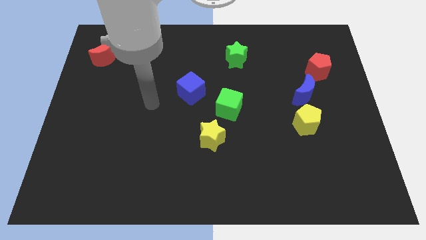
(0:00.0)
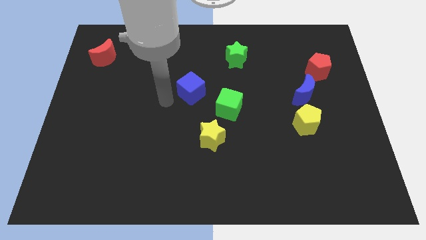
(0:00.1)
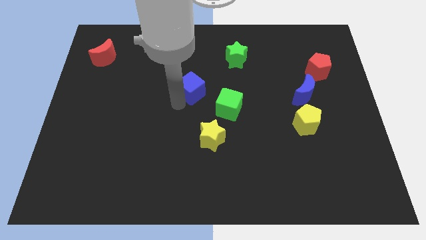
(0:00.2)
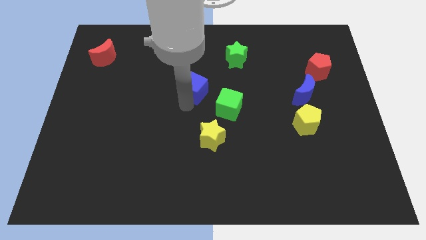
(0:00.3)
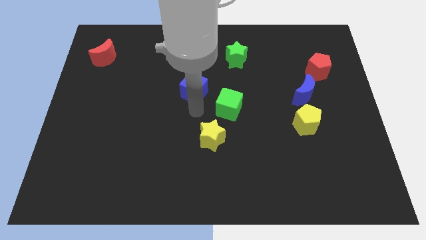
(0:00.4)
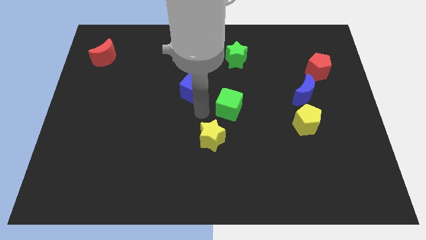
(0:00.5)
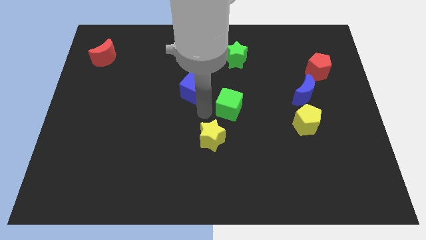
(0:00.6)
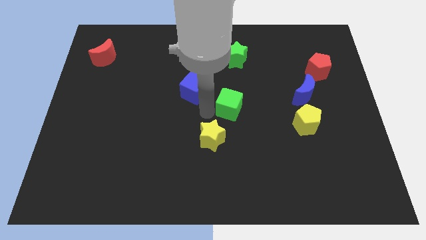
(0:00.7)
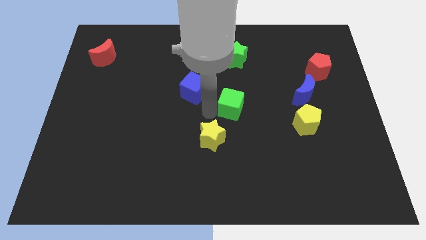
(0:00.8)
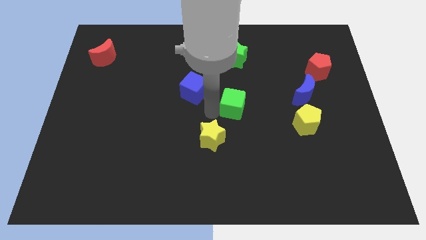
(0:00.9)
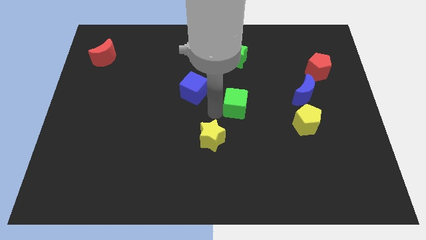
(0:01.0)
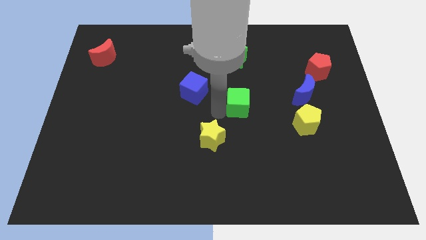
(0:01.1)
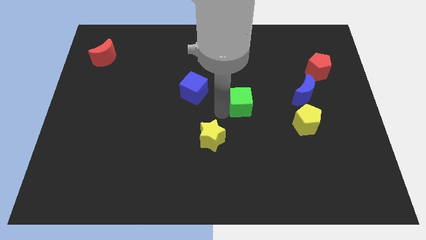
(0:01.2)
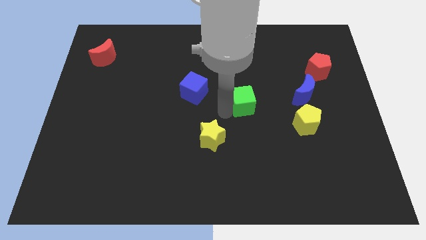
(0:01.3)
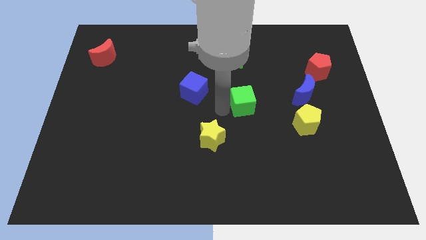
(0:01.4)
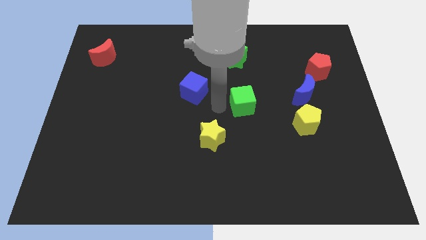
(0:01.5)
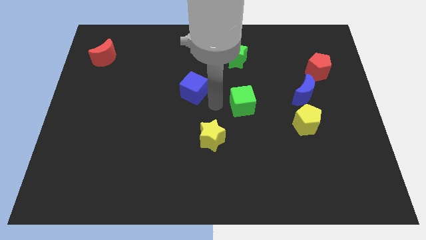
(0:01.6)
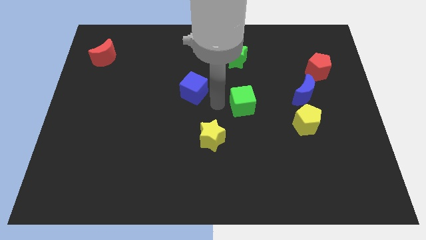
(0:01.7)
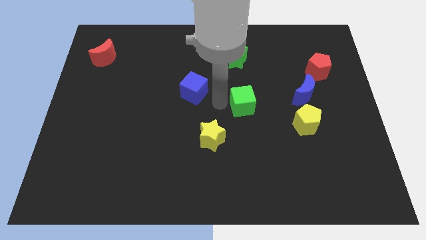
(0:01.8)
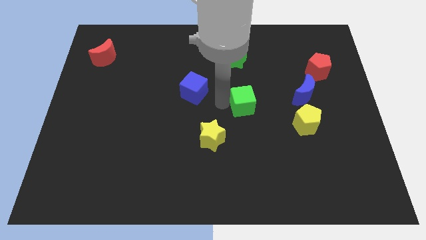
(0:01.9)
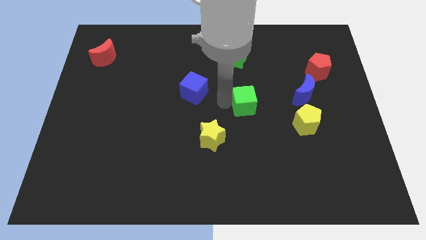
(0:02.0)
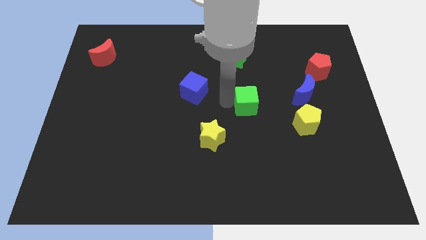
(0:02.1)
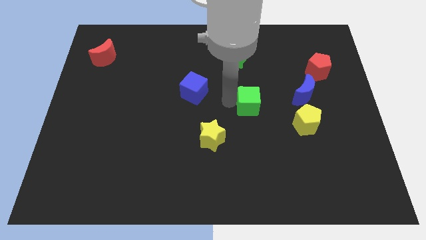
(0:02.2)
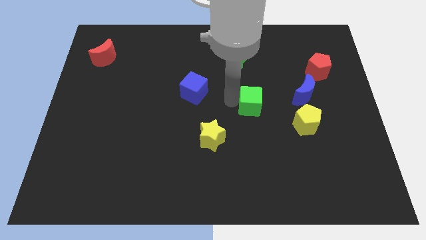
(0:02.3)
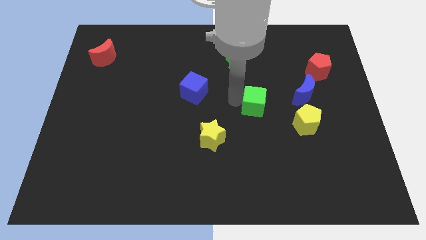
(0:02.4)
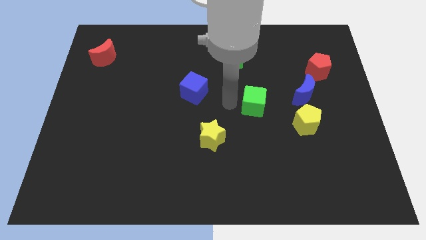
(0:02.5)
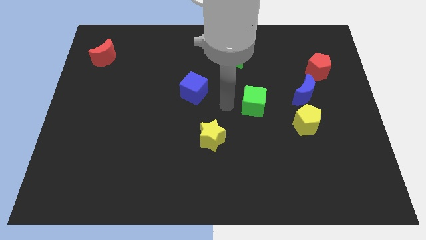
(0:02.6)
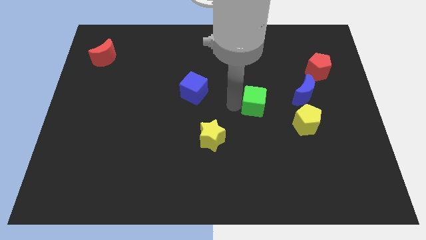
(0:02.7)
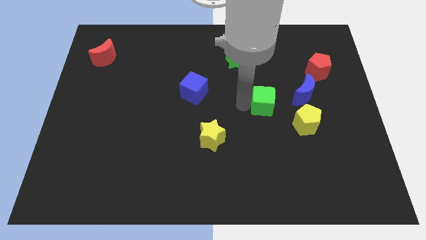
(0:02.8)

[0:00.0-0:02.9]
slide the green cube somewhat to the right

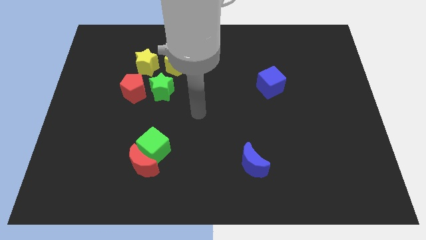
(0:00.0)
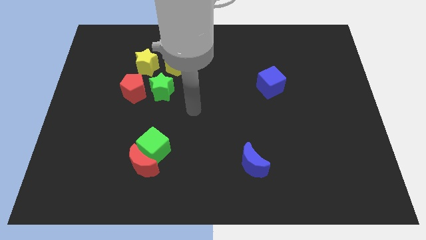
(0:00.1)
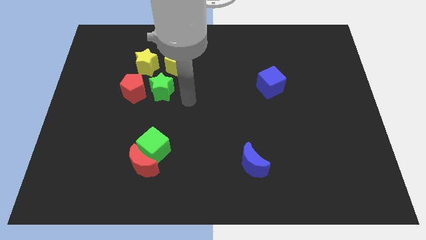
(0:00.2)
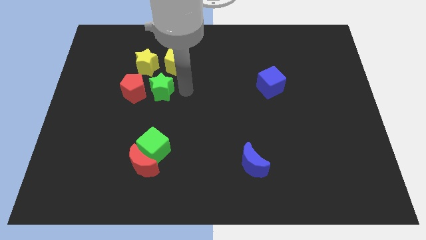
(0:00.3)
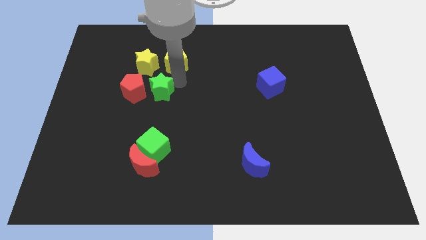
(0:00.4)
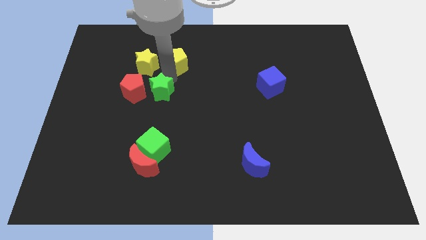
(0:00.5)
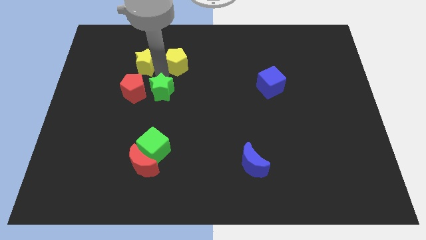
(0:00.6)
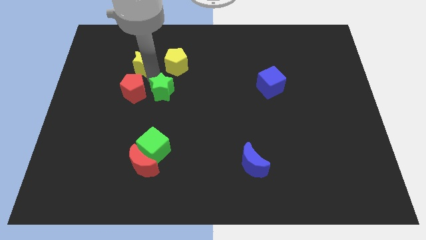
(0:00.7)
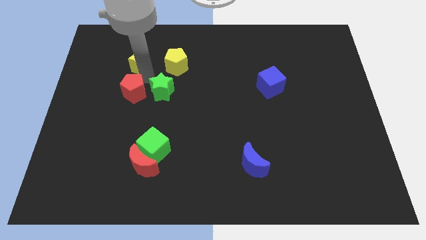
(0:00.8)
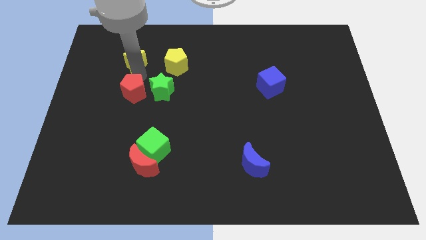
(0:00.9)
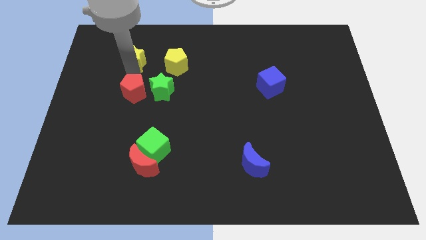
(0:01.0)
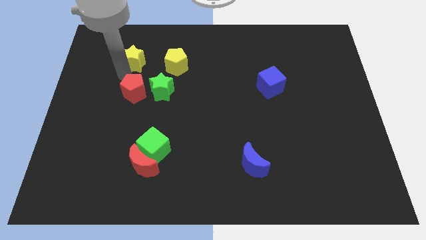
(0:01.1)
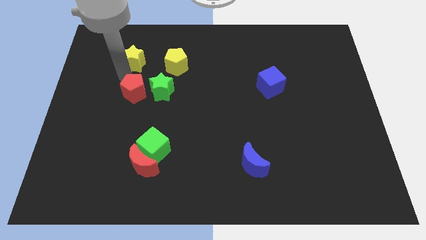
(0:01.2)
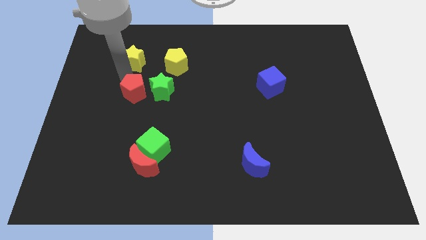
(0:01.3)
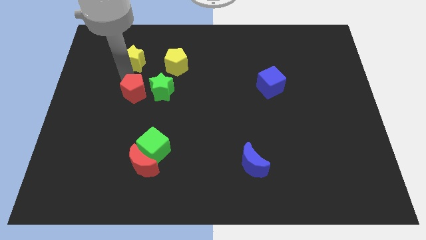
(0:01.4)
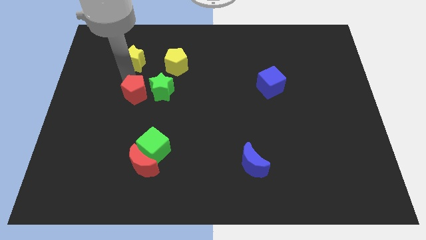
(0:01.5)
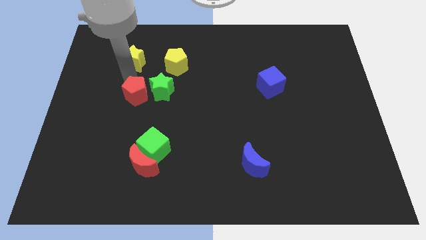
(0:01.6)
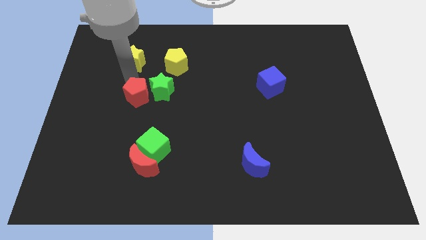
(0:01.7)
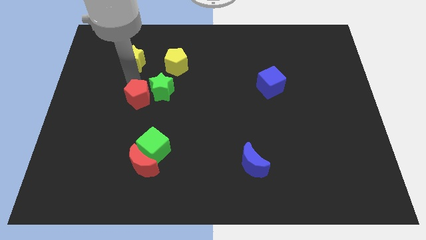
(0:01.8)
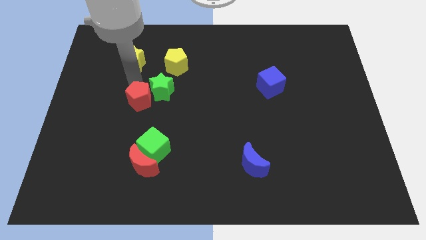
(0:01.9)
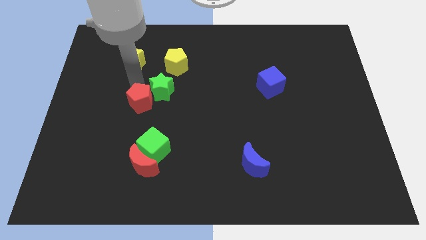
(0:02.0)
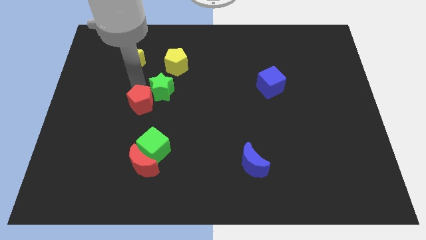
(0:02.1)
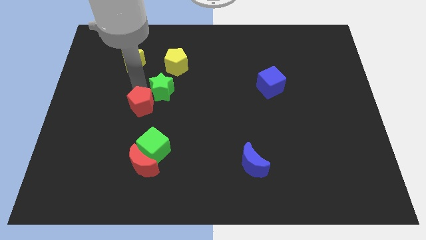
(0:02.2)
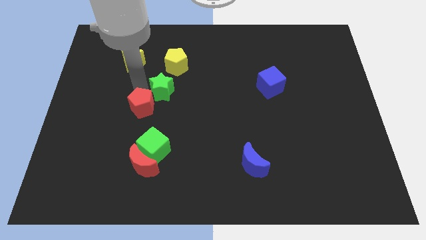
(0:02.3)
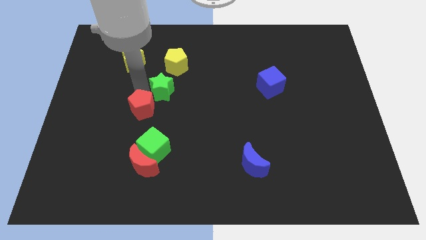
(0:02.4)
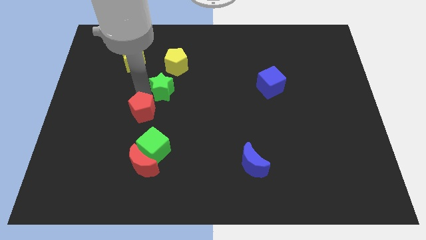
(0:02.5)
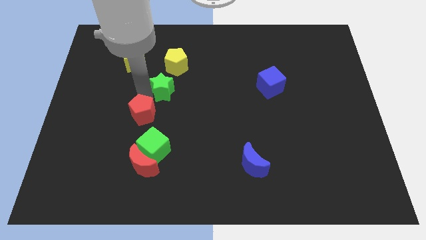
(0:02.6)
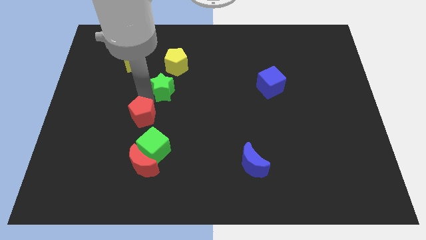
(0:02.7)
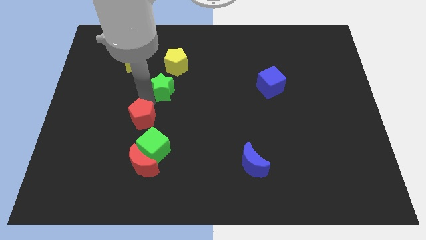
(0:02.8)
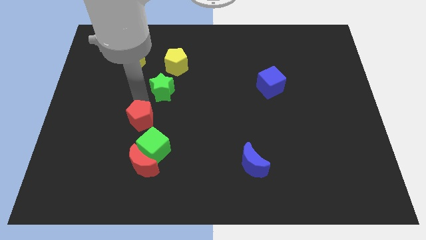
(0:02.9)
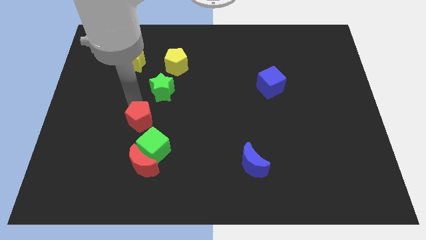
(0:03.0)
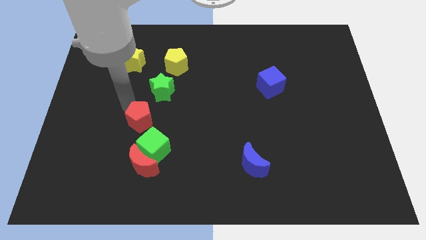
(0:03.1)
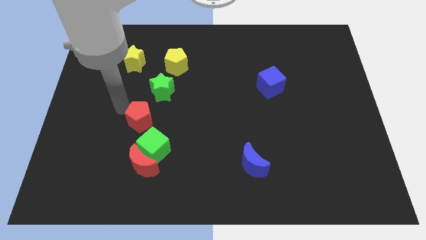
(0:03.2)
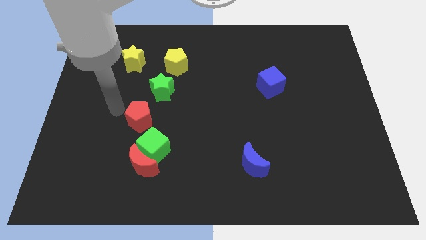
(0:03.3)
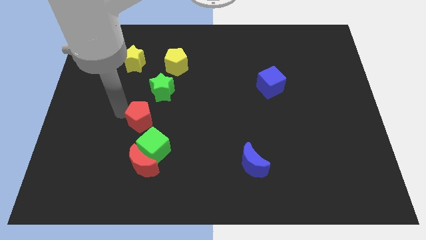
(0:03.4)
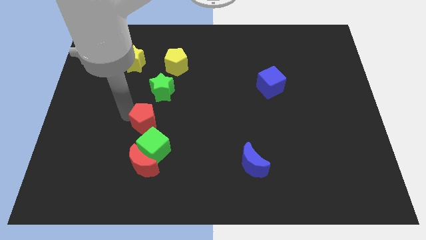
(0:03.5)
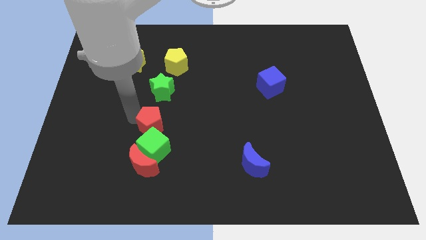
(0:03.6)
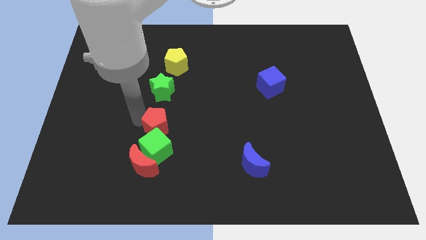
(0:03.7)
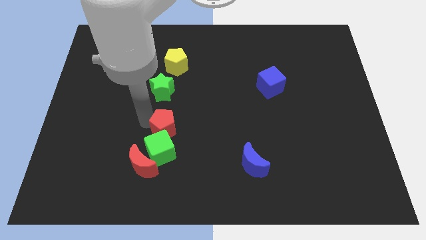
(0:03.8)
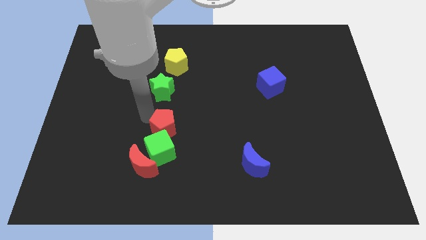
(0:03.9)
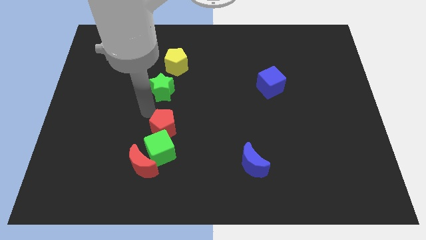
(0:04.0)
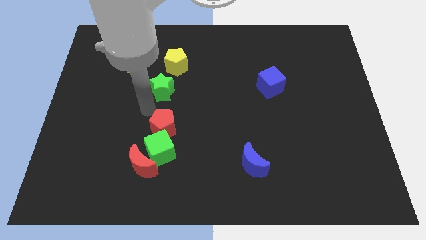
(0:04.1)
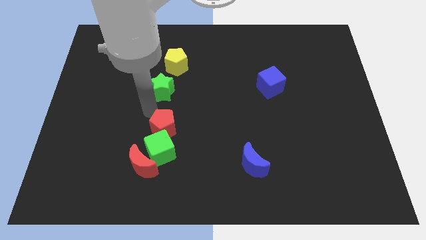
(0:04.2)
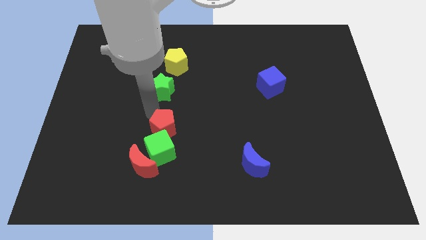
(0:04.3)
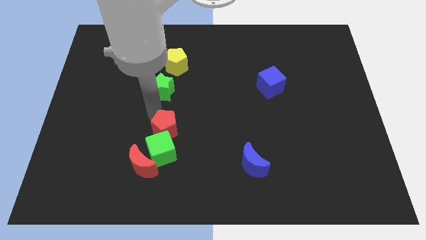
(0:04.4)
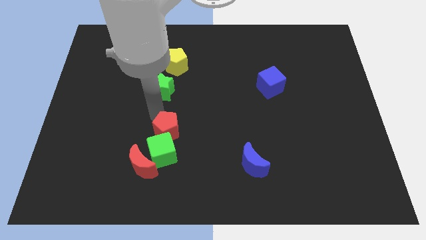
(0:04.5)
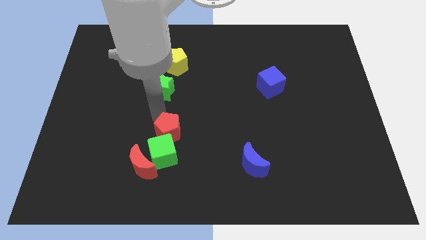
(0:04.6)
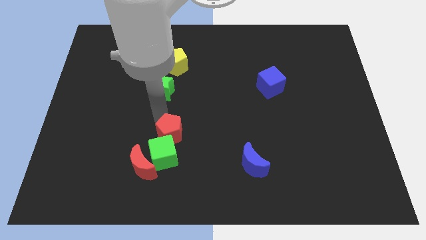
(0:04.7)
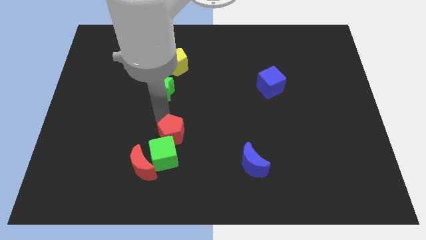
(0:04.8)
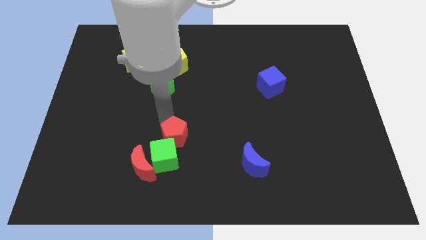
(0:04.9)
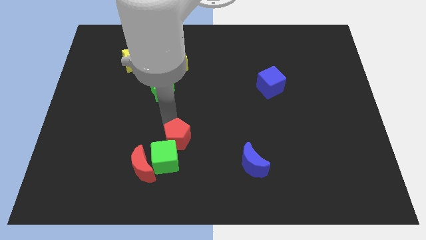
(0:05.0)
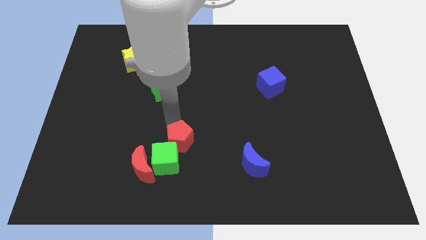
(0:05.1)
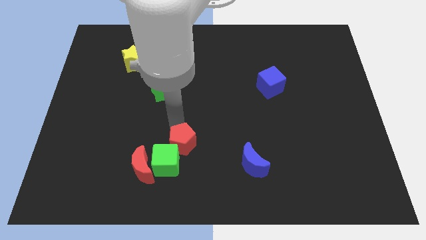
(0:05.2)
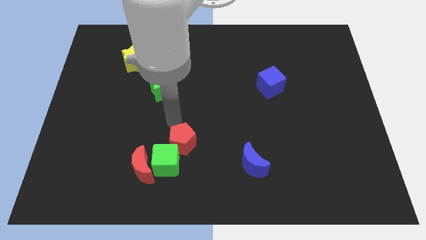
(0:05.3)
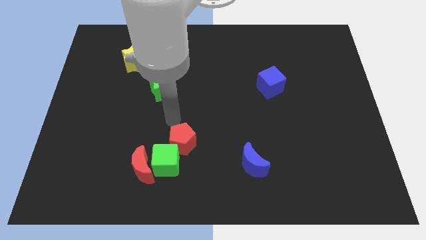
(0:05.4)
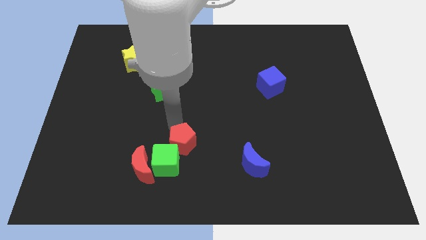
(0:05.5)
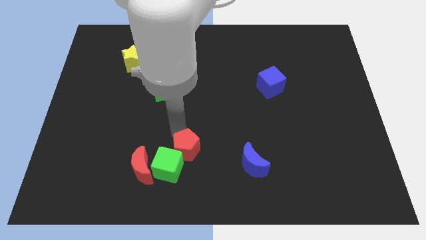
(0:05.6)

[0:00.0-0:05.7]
slide the red pentagon diagonally down and right
